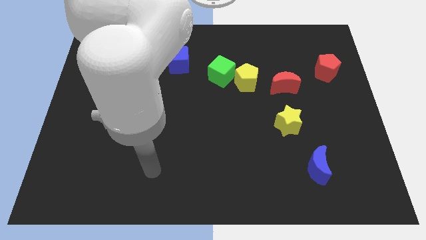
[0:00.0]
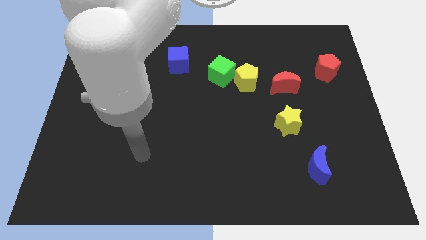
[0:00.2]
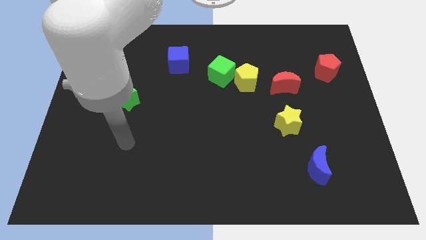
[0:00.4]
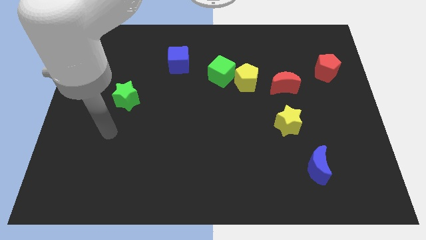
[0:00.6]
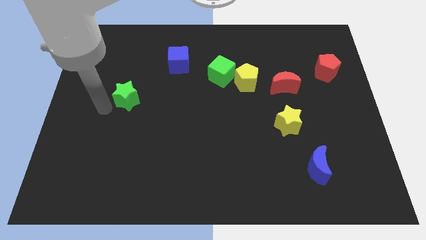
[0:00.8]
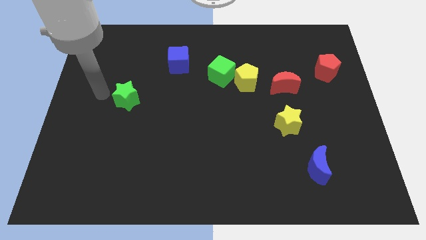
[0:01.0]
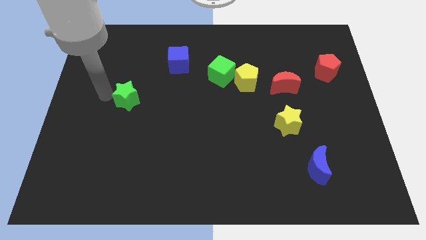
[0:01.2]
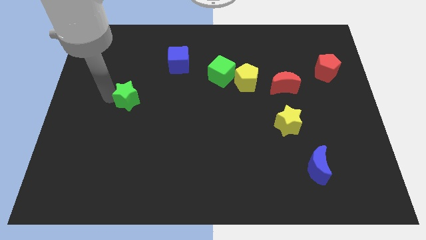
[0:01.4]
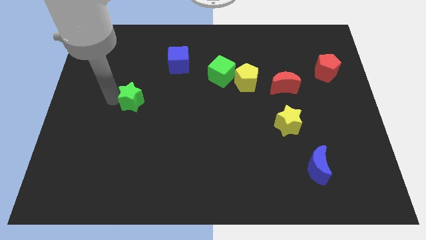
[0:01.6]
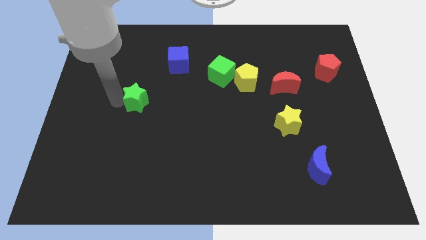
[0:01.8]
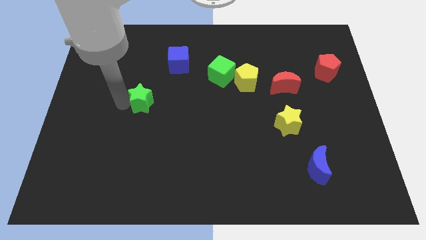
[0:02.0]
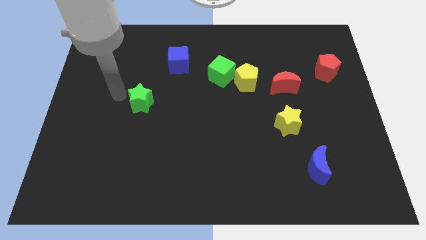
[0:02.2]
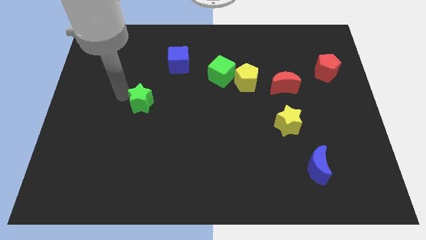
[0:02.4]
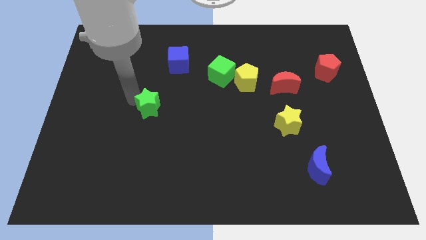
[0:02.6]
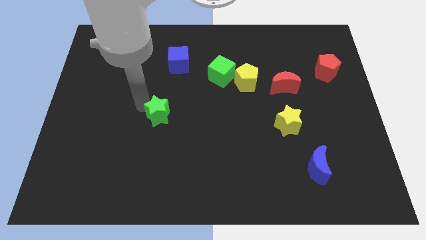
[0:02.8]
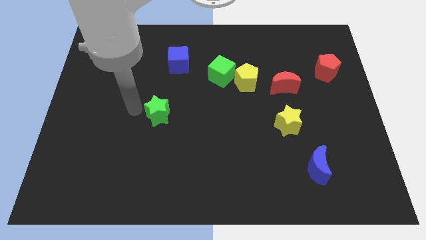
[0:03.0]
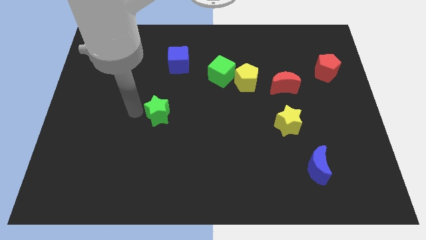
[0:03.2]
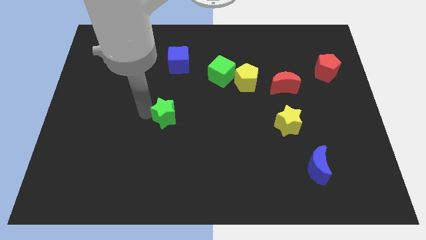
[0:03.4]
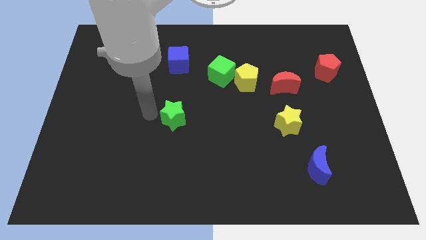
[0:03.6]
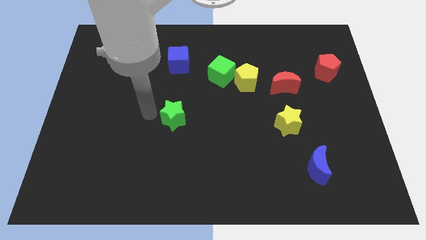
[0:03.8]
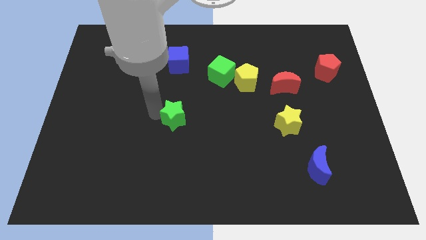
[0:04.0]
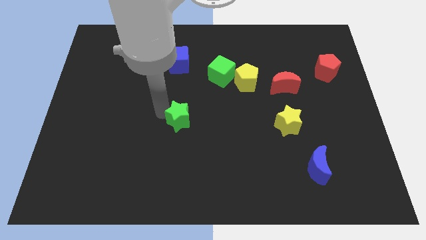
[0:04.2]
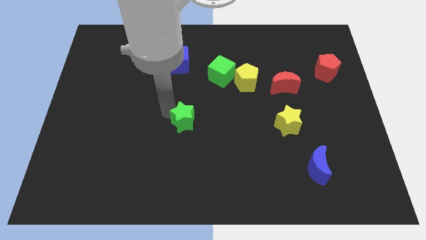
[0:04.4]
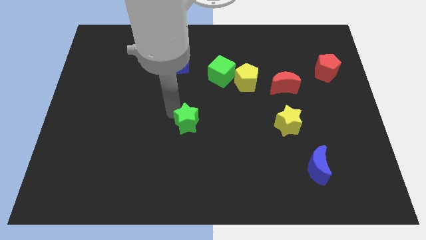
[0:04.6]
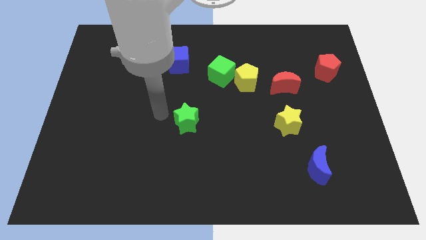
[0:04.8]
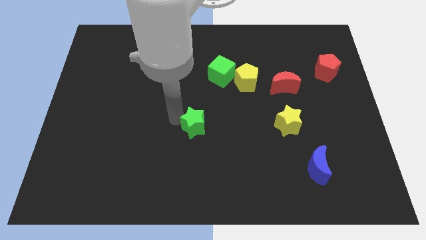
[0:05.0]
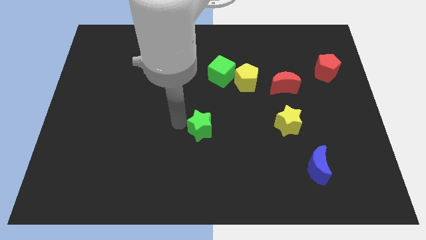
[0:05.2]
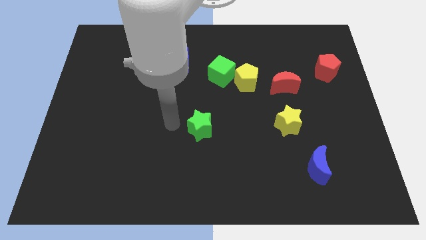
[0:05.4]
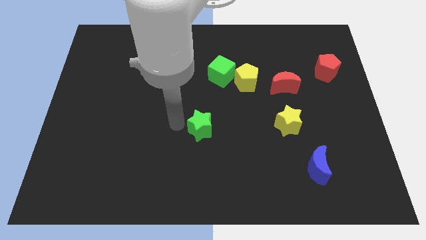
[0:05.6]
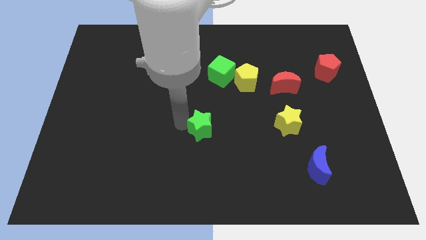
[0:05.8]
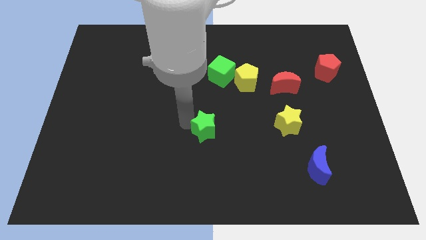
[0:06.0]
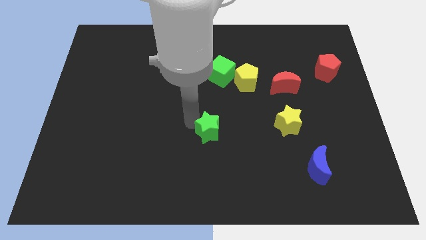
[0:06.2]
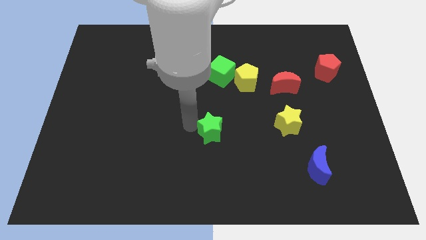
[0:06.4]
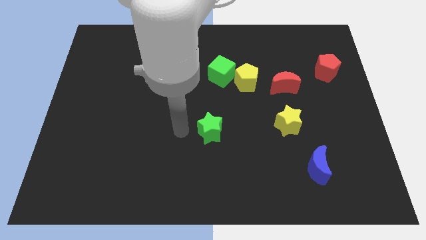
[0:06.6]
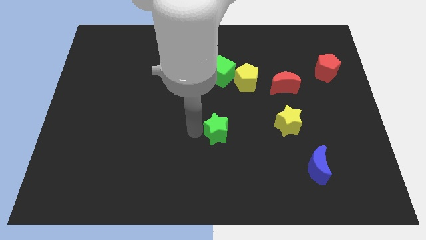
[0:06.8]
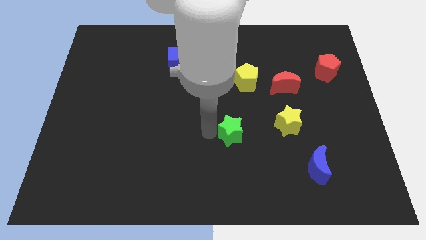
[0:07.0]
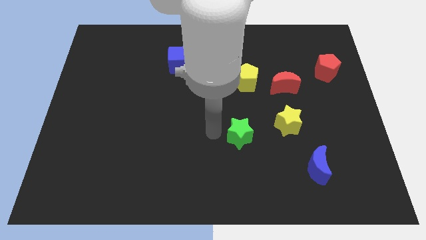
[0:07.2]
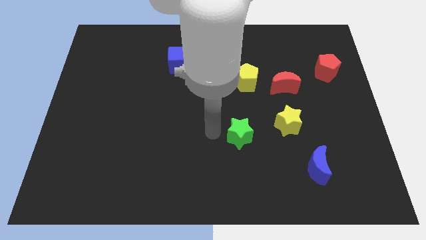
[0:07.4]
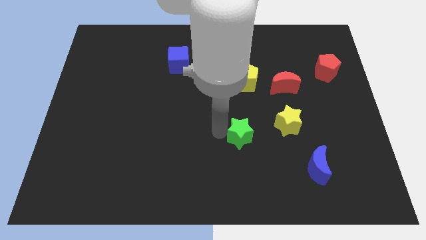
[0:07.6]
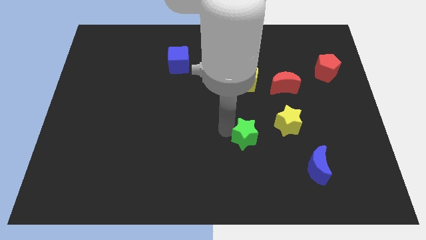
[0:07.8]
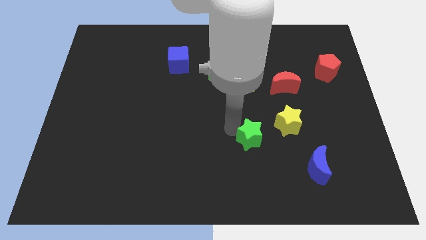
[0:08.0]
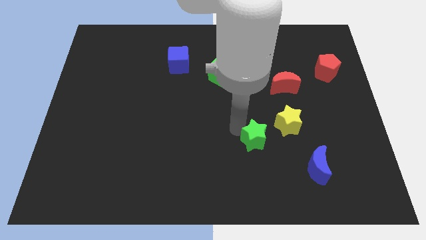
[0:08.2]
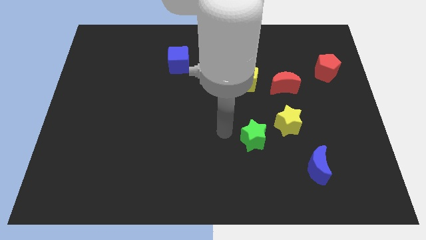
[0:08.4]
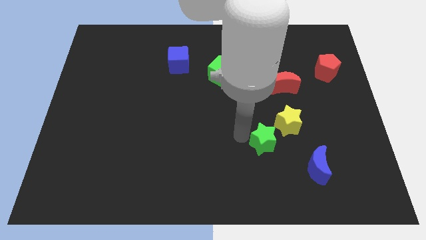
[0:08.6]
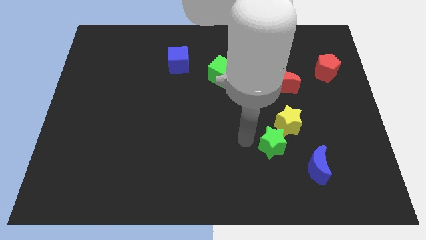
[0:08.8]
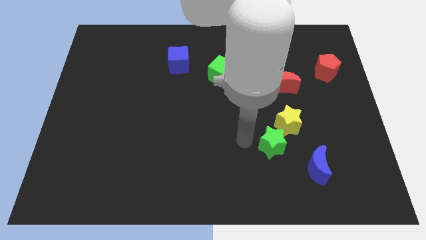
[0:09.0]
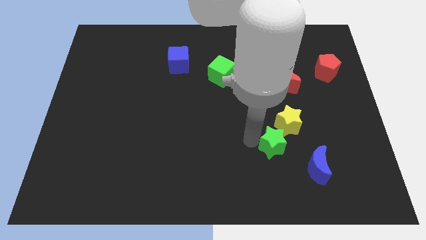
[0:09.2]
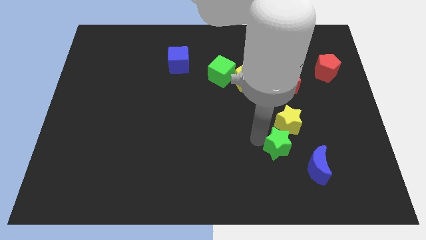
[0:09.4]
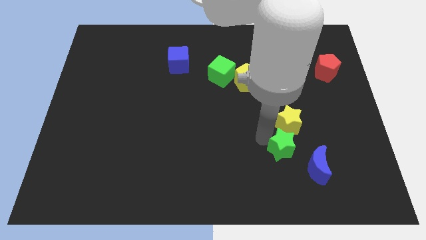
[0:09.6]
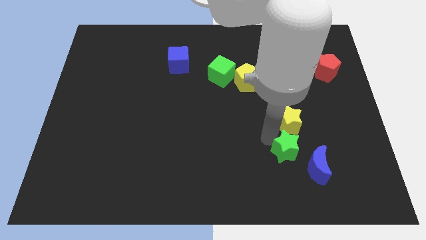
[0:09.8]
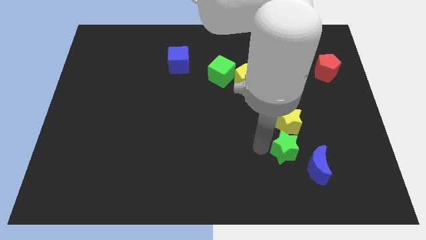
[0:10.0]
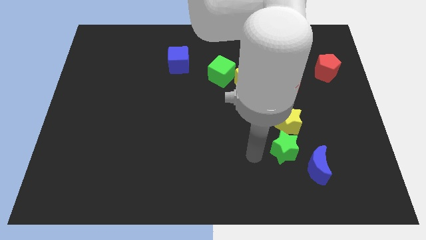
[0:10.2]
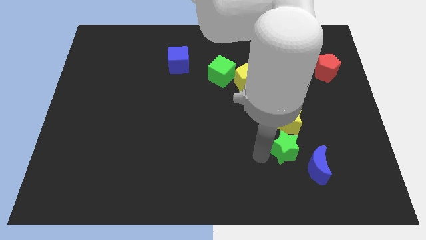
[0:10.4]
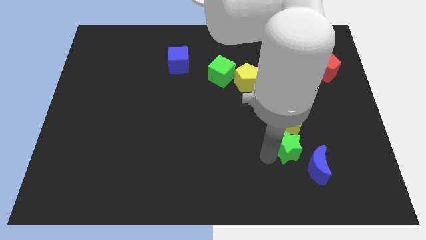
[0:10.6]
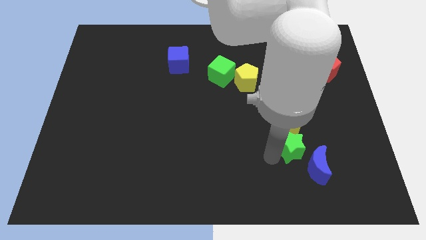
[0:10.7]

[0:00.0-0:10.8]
slide the green star diagonally down and to the right of the yellow star

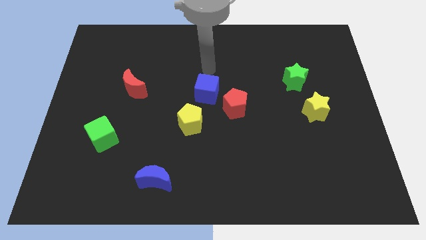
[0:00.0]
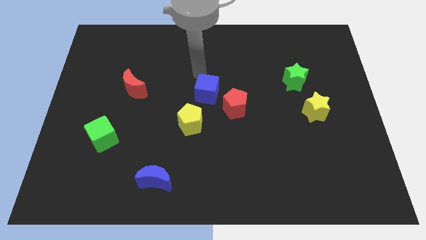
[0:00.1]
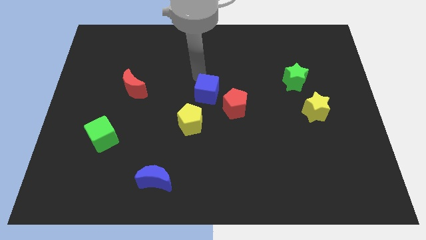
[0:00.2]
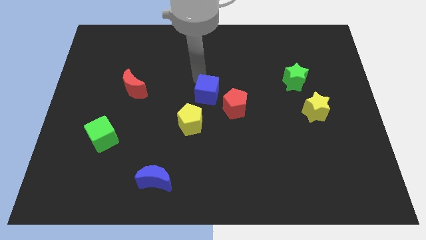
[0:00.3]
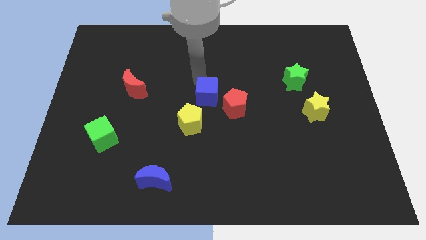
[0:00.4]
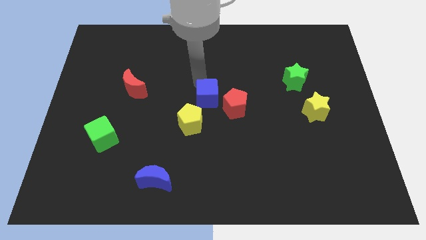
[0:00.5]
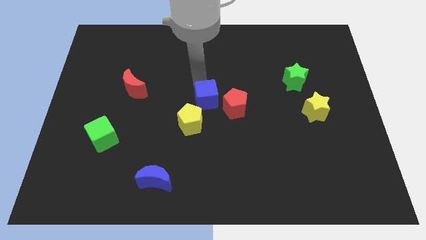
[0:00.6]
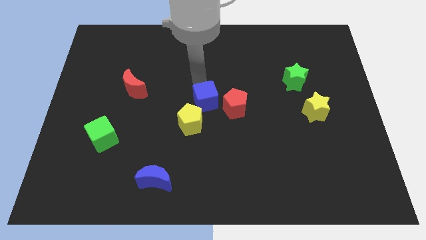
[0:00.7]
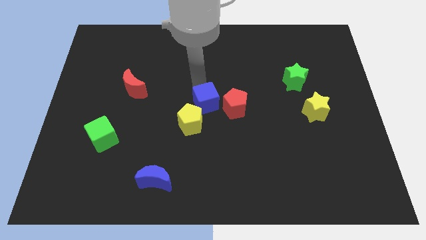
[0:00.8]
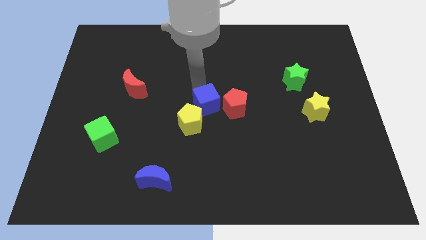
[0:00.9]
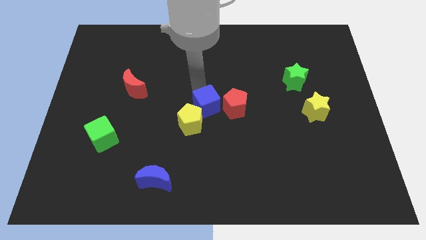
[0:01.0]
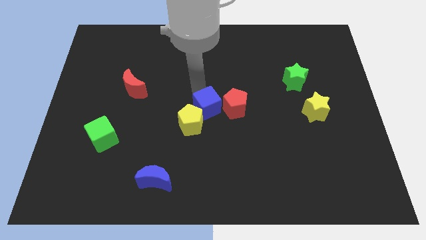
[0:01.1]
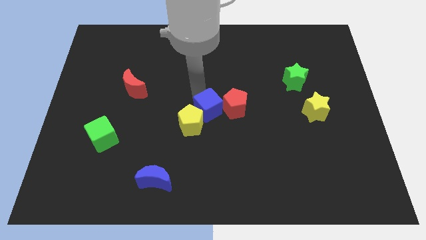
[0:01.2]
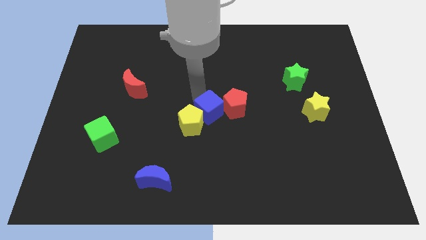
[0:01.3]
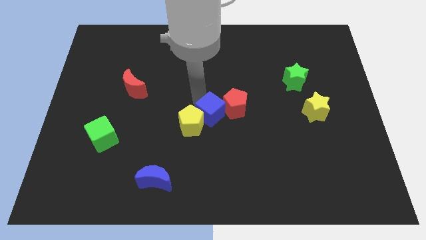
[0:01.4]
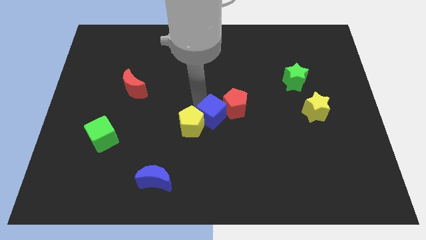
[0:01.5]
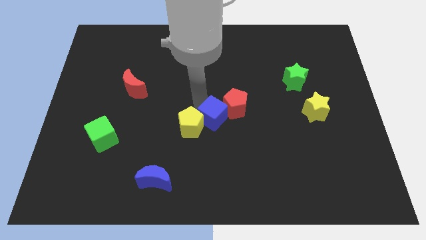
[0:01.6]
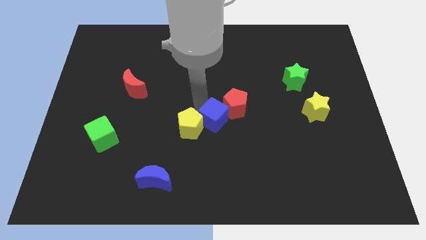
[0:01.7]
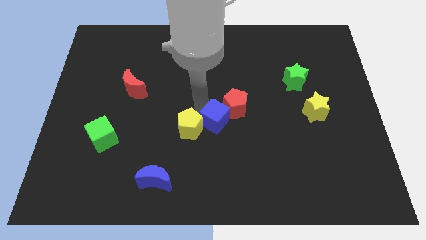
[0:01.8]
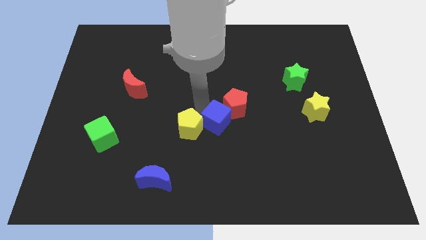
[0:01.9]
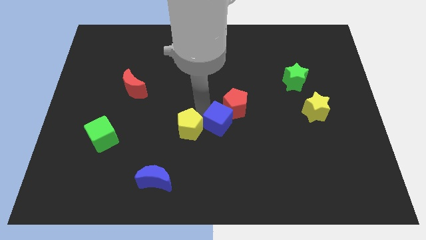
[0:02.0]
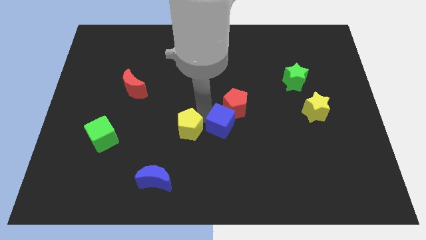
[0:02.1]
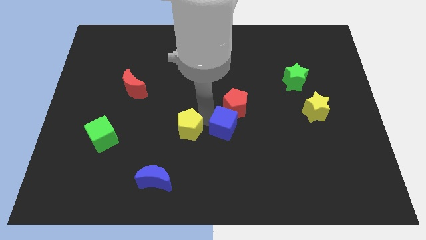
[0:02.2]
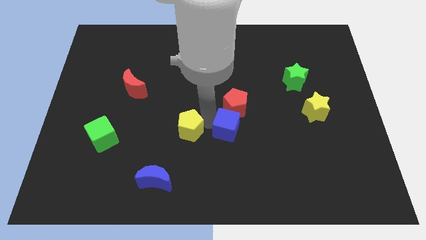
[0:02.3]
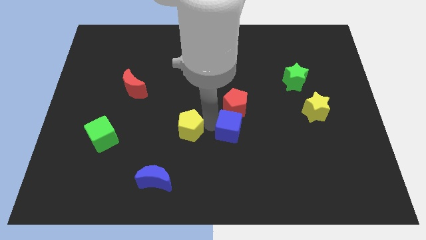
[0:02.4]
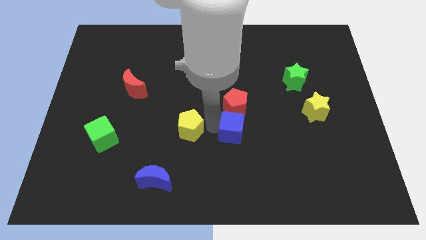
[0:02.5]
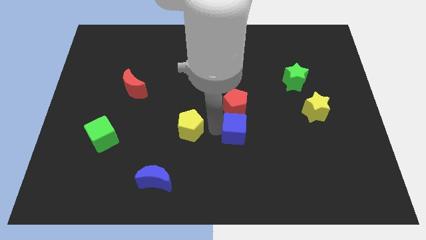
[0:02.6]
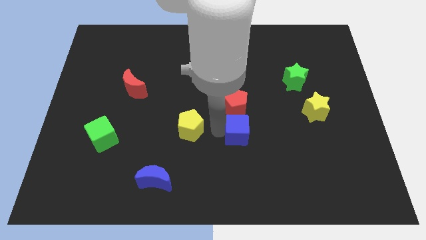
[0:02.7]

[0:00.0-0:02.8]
move the blue cube diagonally down and to the right of the red pentagon
